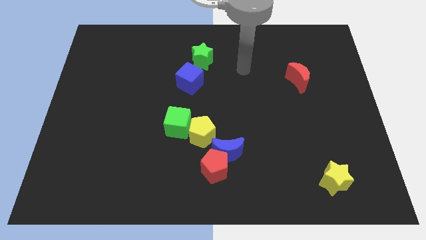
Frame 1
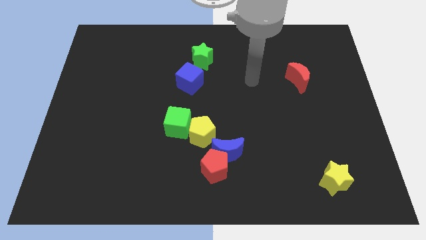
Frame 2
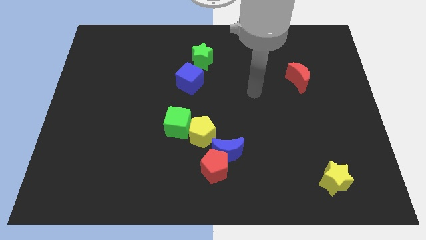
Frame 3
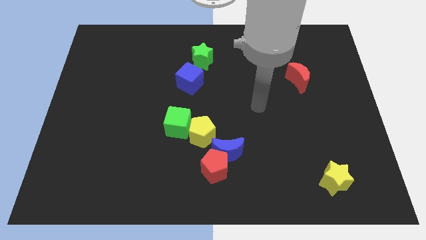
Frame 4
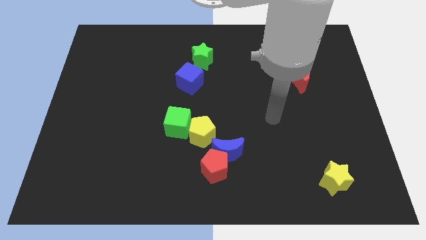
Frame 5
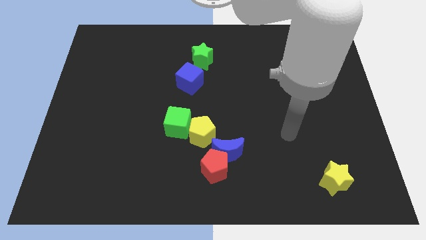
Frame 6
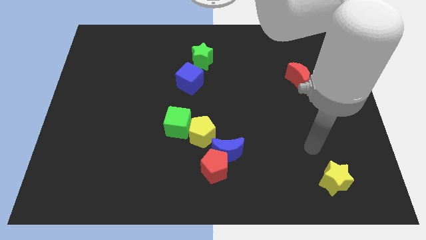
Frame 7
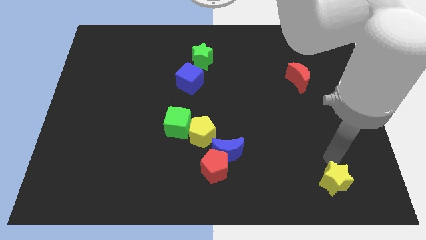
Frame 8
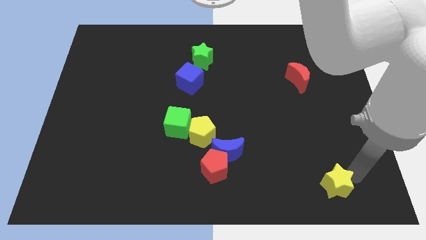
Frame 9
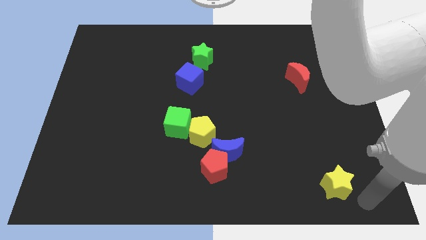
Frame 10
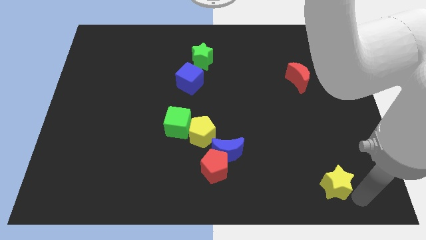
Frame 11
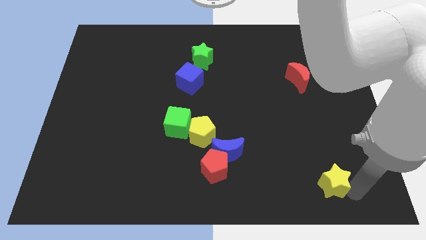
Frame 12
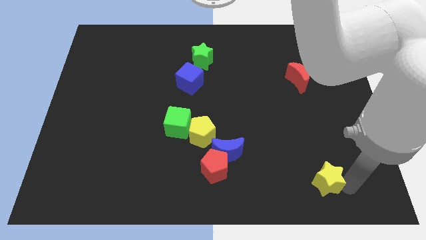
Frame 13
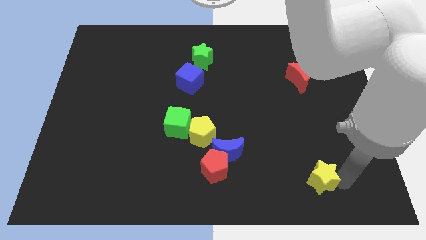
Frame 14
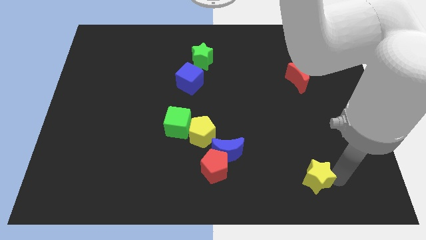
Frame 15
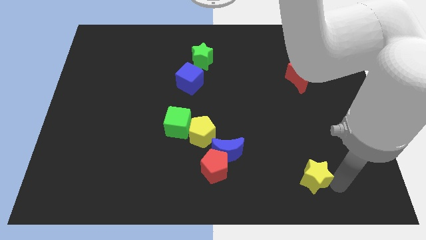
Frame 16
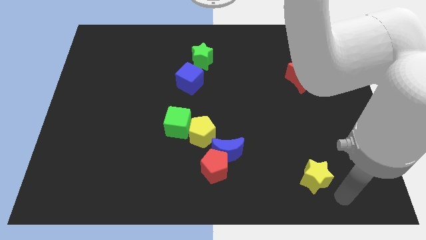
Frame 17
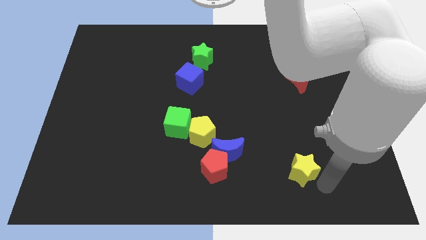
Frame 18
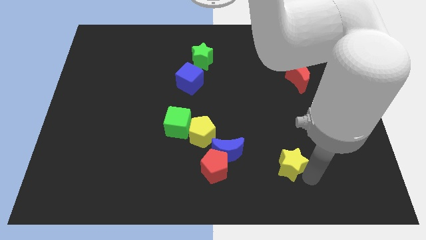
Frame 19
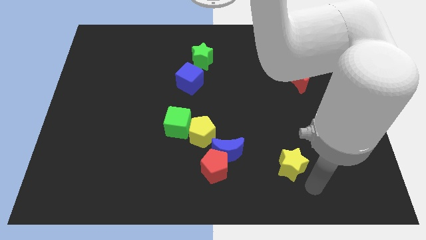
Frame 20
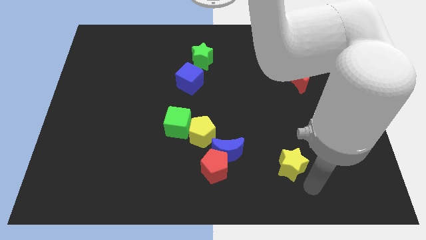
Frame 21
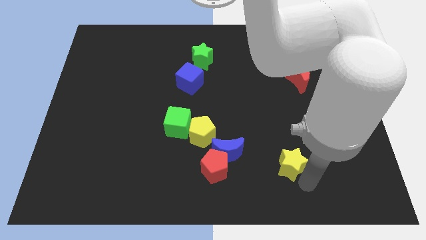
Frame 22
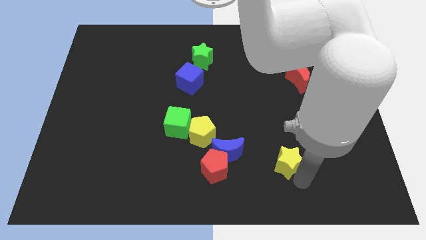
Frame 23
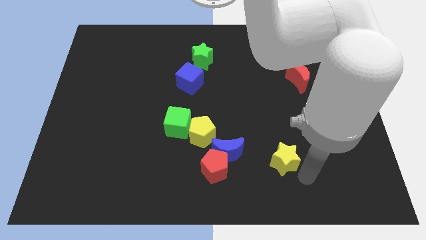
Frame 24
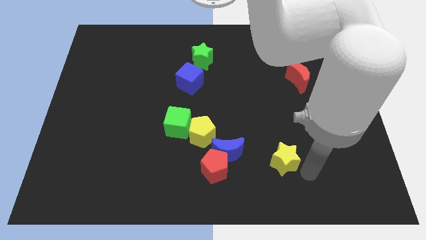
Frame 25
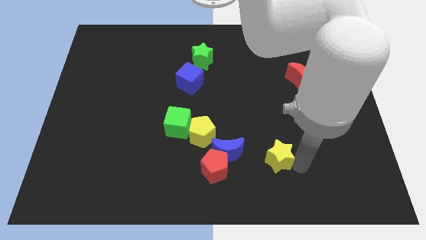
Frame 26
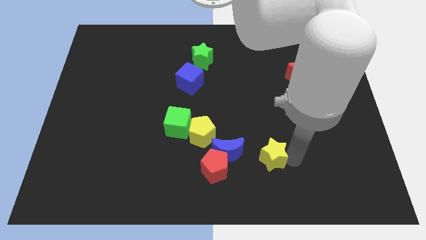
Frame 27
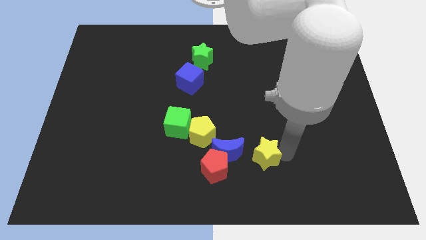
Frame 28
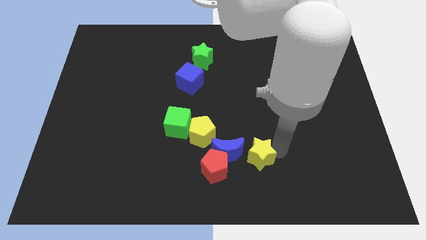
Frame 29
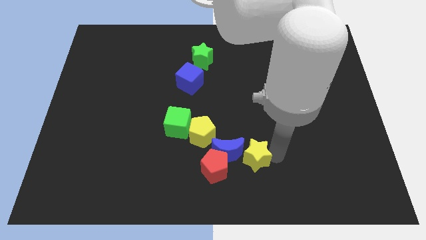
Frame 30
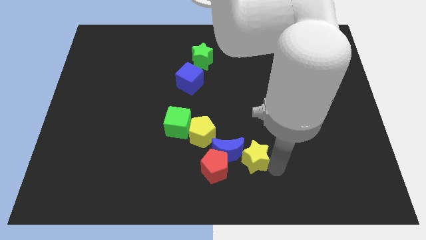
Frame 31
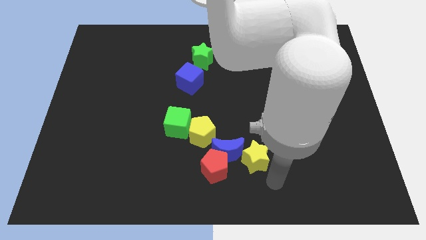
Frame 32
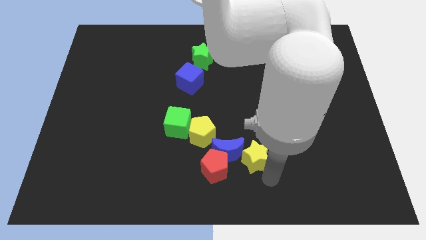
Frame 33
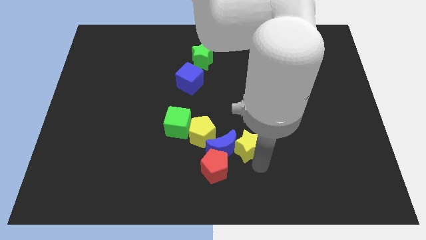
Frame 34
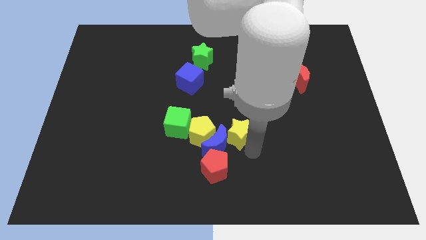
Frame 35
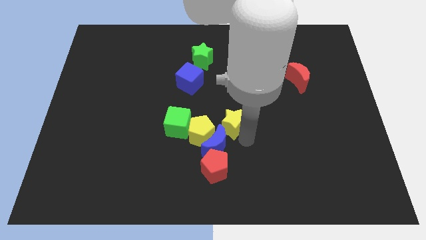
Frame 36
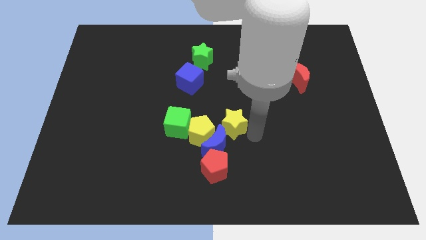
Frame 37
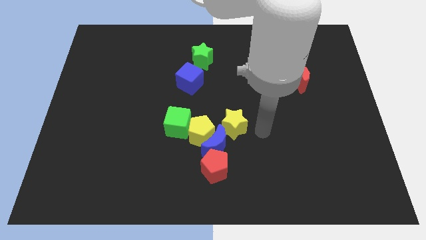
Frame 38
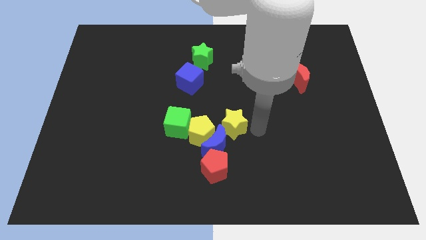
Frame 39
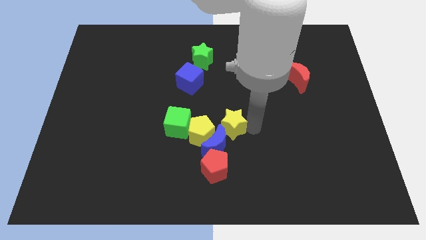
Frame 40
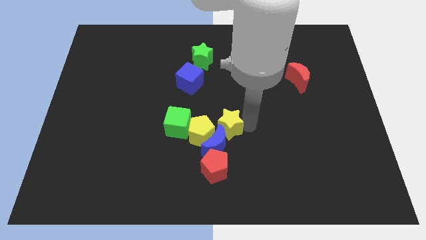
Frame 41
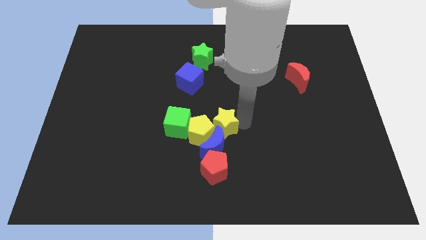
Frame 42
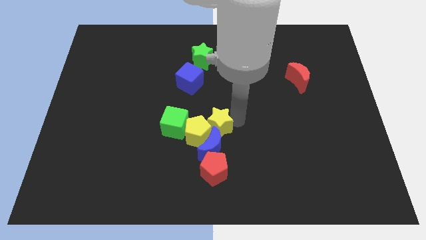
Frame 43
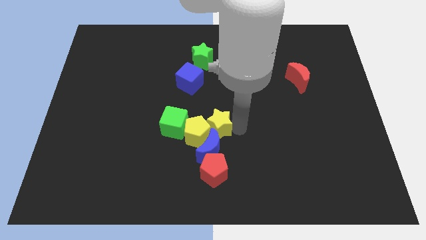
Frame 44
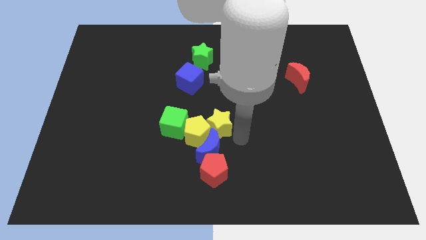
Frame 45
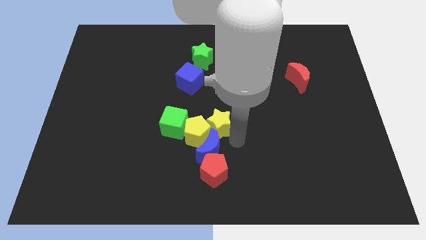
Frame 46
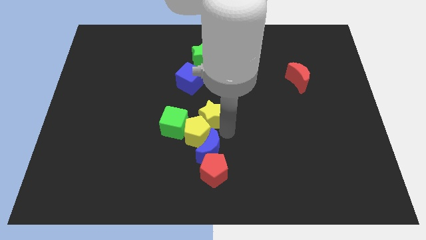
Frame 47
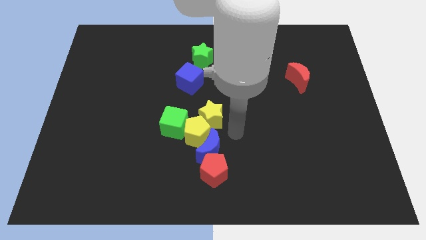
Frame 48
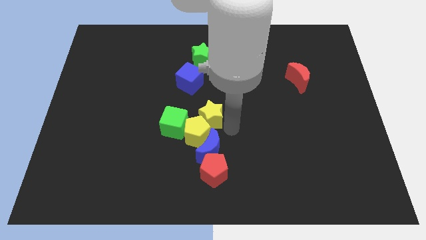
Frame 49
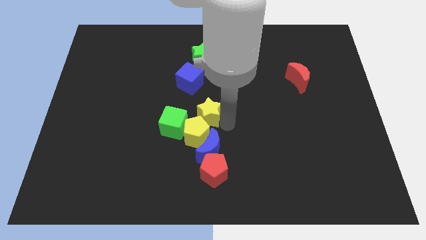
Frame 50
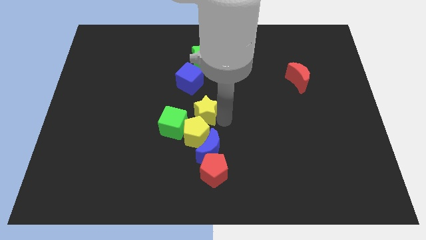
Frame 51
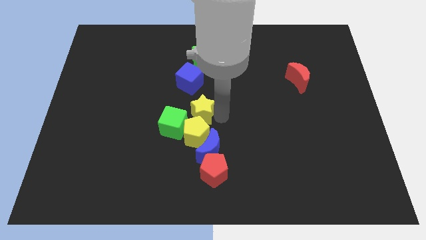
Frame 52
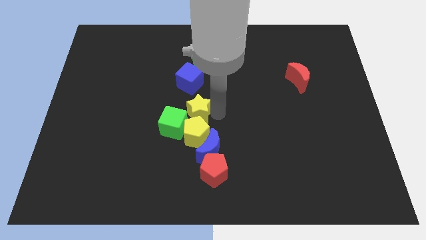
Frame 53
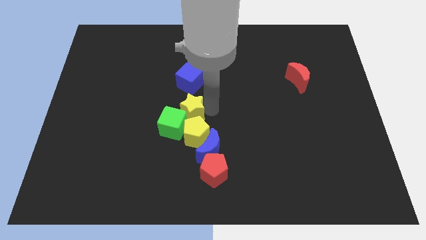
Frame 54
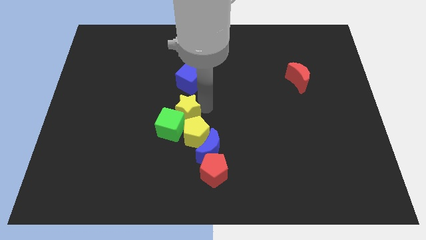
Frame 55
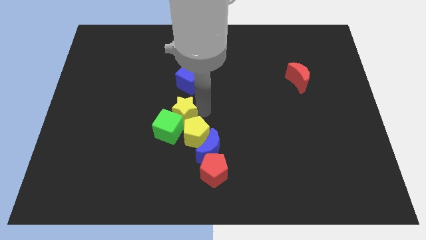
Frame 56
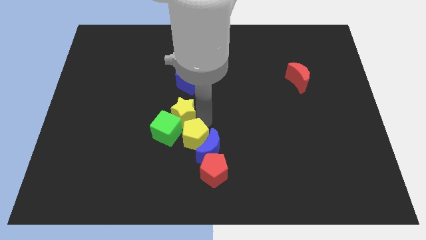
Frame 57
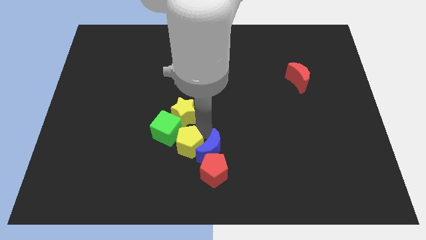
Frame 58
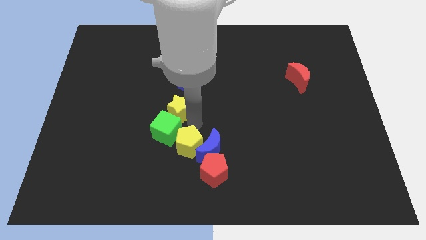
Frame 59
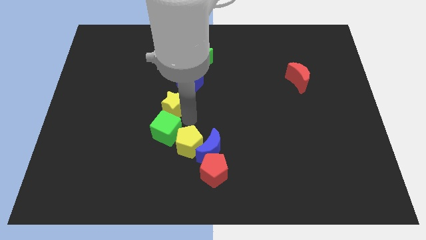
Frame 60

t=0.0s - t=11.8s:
put the yellow star diagonally down and to the left of the blue cube

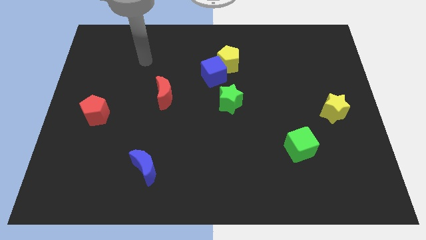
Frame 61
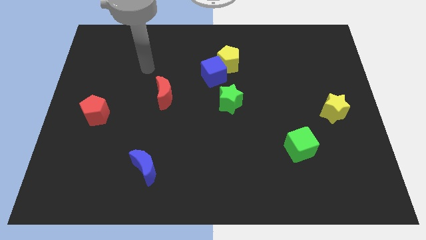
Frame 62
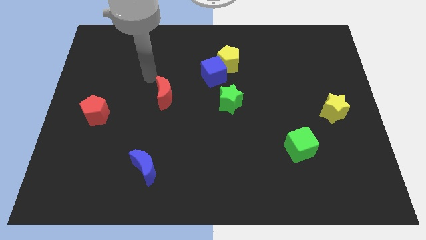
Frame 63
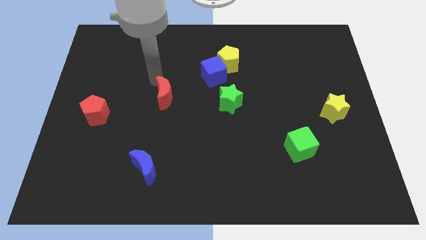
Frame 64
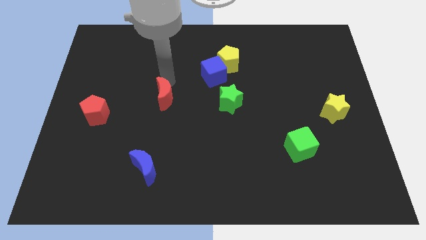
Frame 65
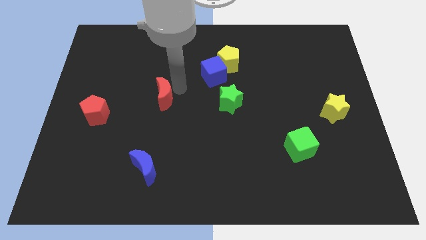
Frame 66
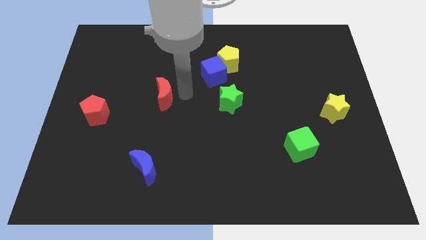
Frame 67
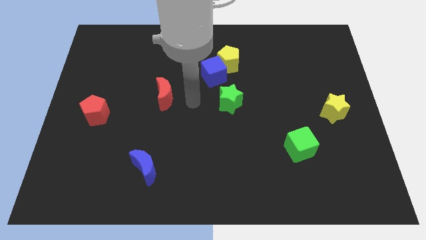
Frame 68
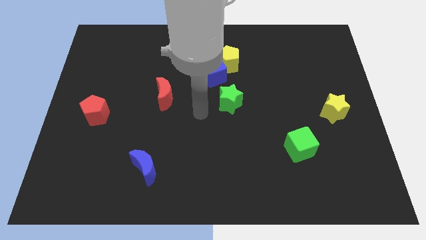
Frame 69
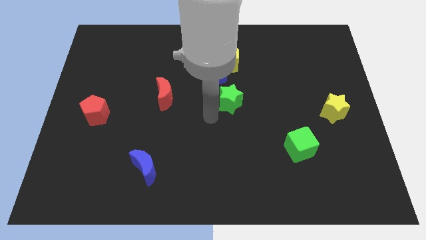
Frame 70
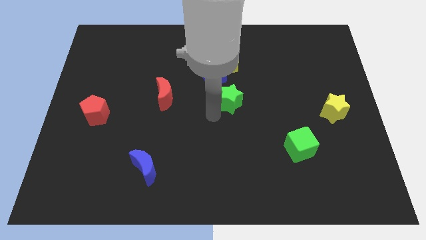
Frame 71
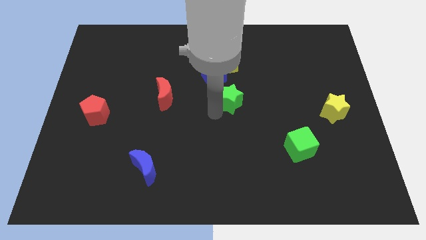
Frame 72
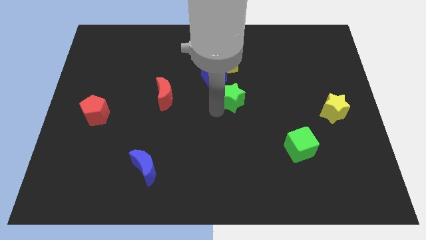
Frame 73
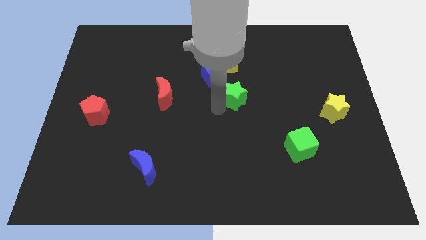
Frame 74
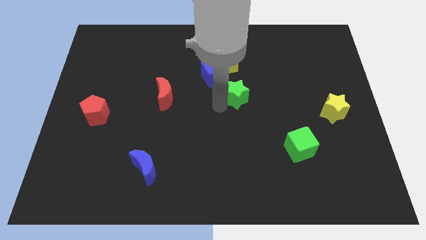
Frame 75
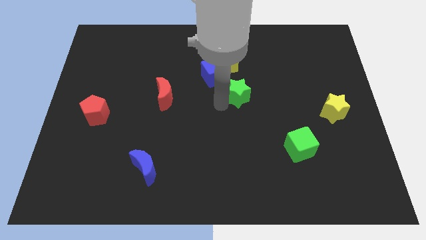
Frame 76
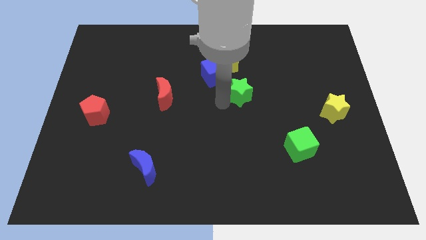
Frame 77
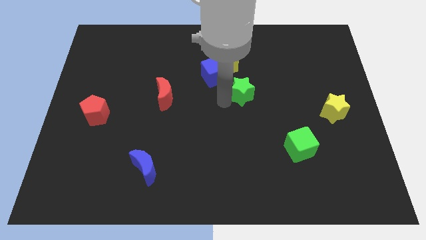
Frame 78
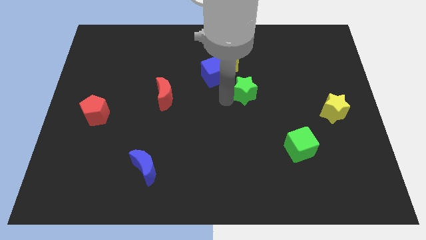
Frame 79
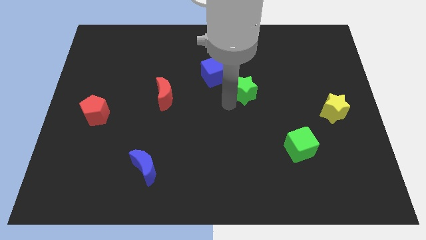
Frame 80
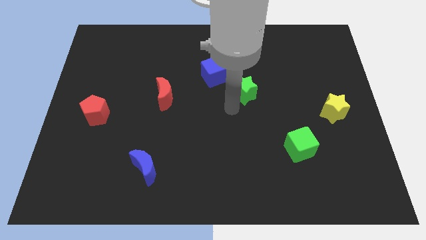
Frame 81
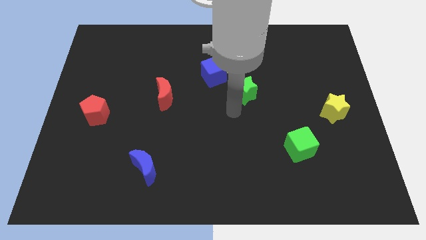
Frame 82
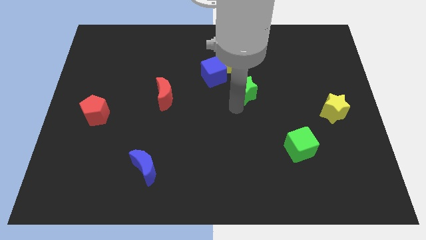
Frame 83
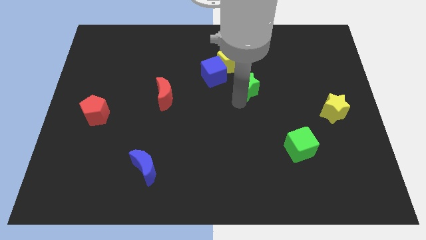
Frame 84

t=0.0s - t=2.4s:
put the green star right of the blue cube
